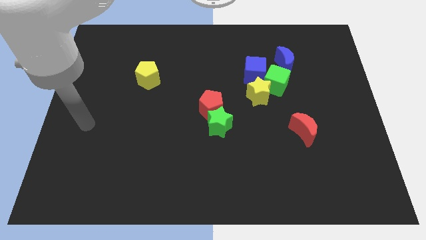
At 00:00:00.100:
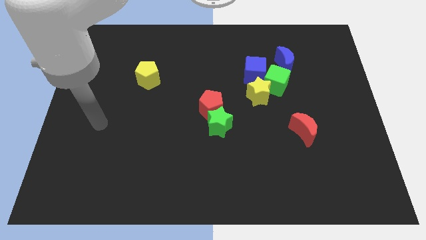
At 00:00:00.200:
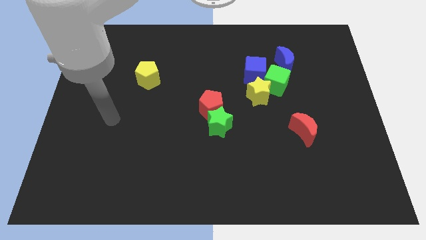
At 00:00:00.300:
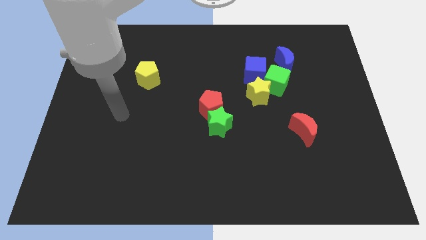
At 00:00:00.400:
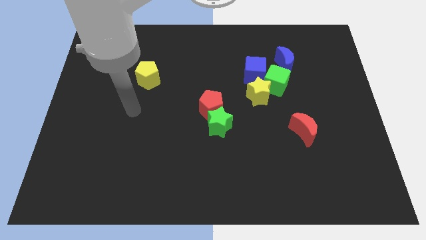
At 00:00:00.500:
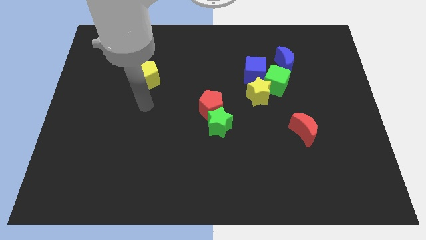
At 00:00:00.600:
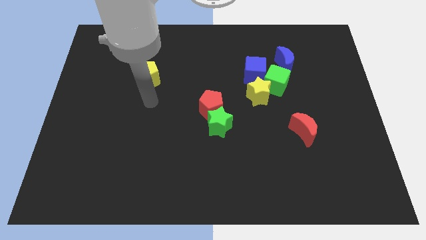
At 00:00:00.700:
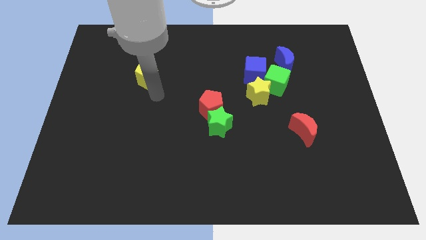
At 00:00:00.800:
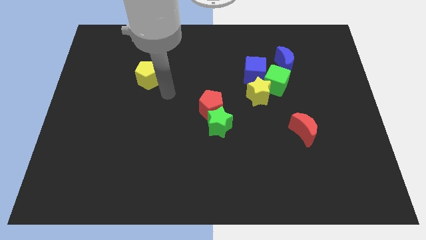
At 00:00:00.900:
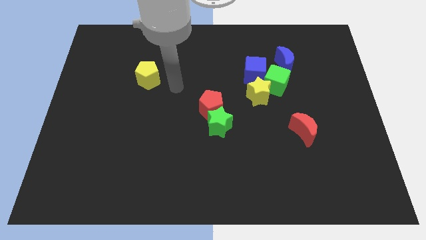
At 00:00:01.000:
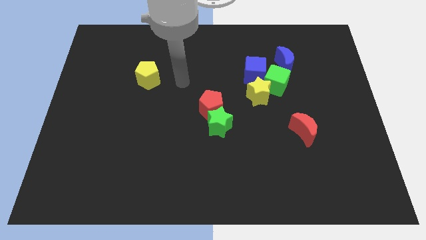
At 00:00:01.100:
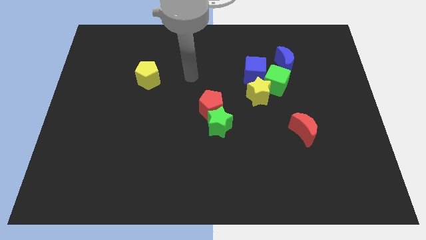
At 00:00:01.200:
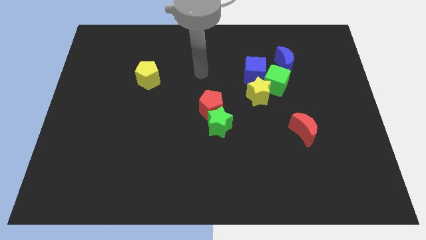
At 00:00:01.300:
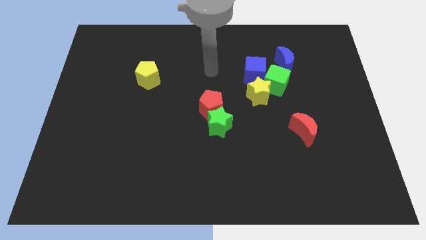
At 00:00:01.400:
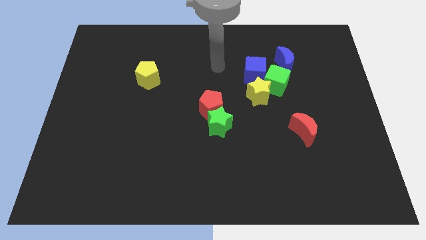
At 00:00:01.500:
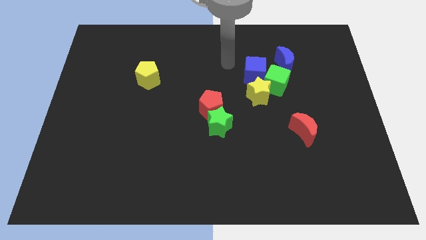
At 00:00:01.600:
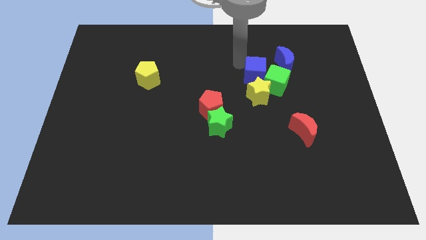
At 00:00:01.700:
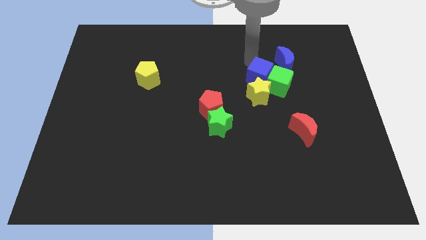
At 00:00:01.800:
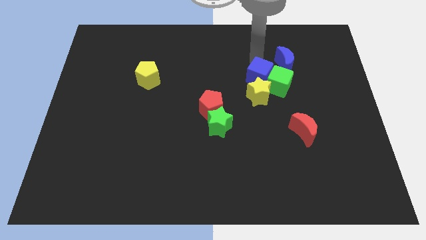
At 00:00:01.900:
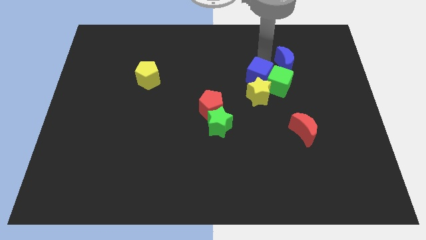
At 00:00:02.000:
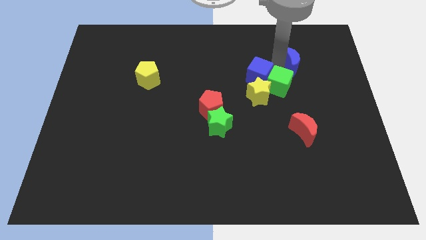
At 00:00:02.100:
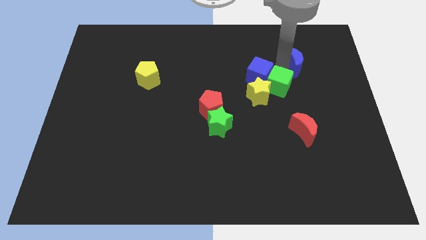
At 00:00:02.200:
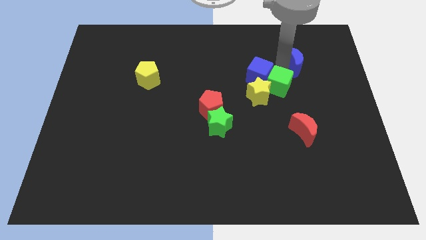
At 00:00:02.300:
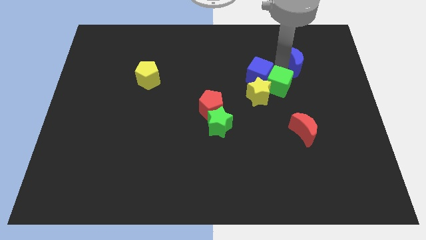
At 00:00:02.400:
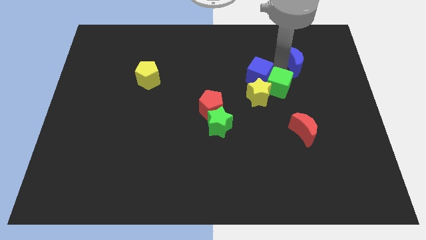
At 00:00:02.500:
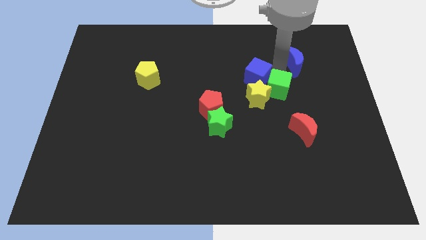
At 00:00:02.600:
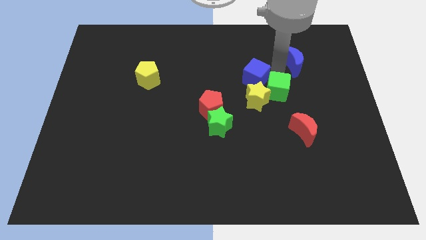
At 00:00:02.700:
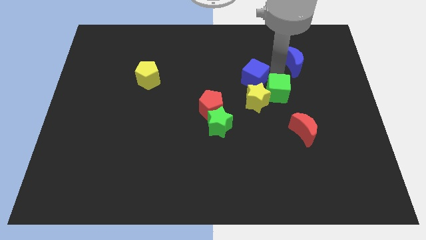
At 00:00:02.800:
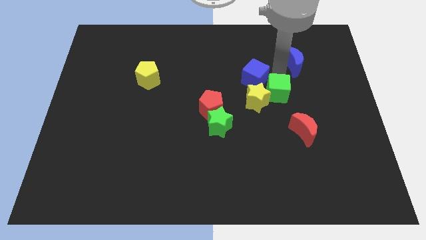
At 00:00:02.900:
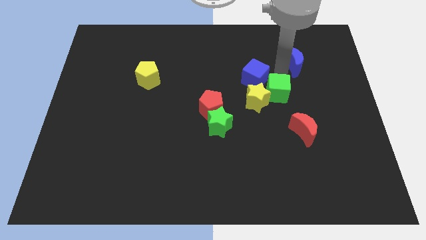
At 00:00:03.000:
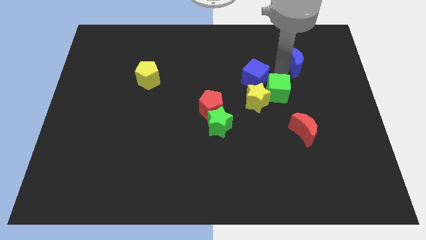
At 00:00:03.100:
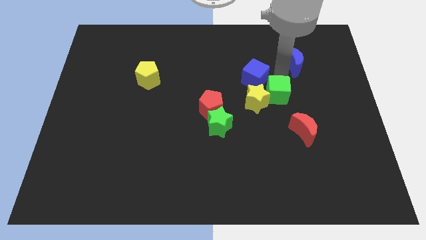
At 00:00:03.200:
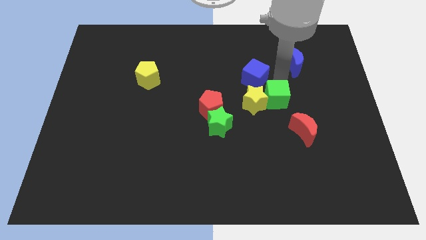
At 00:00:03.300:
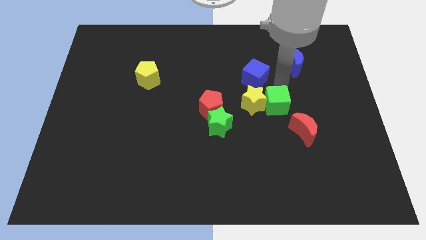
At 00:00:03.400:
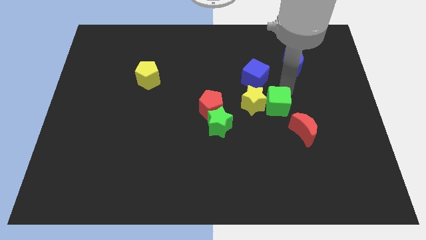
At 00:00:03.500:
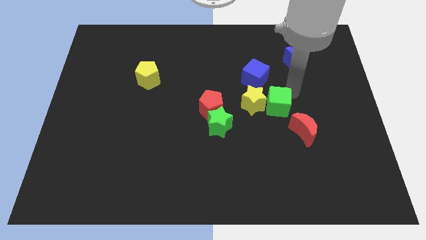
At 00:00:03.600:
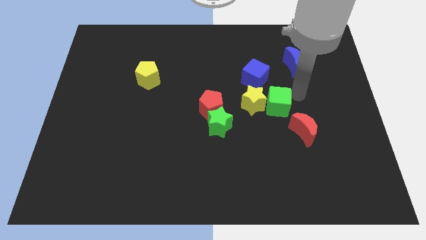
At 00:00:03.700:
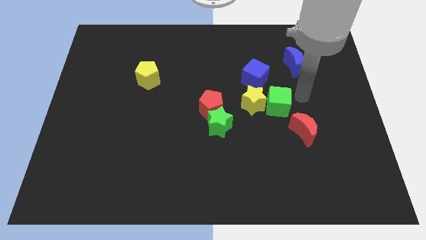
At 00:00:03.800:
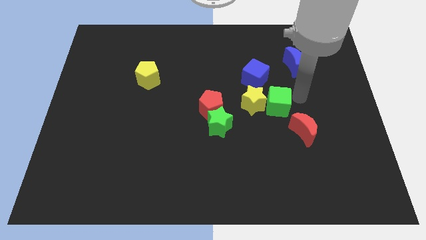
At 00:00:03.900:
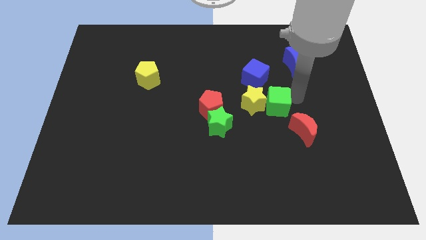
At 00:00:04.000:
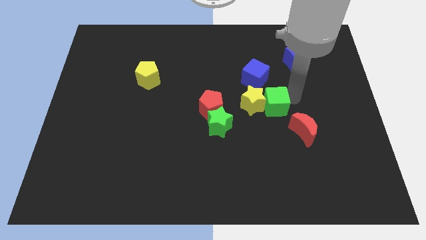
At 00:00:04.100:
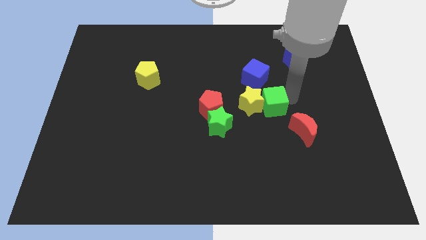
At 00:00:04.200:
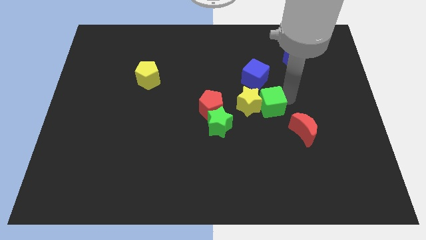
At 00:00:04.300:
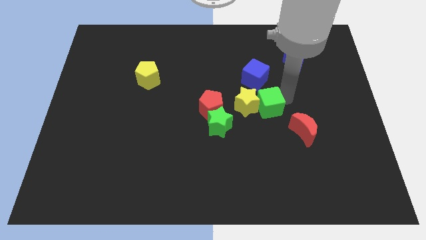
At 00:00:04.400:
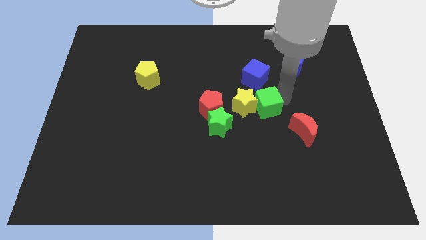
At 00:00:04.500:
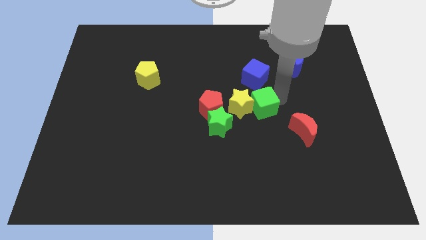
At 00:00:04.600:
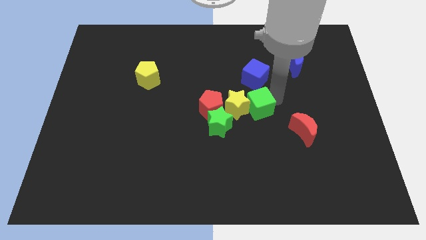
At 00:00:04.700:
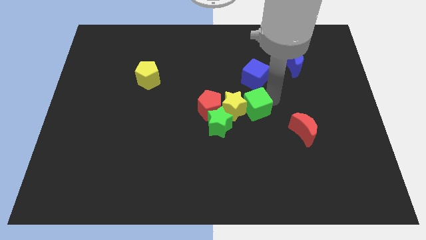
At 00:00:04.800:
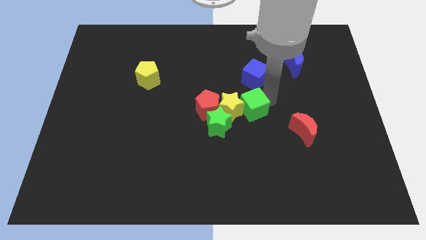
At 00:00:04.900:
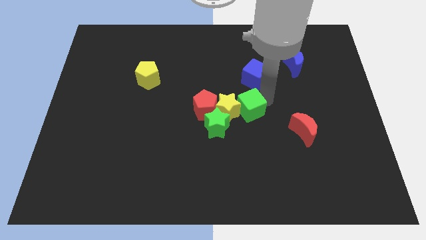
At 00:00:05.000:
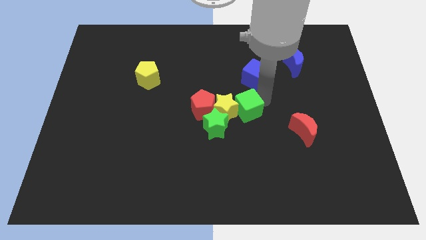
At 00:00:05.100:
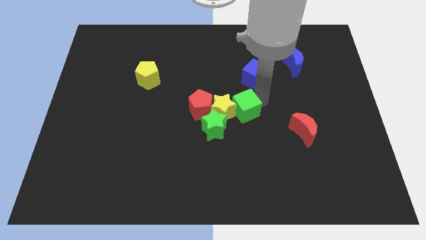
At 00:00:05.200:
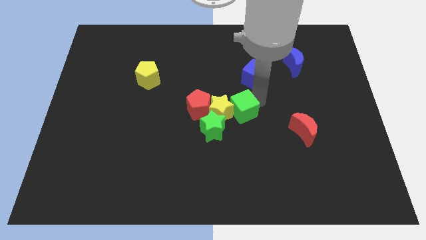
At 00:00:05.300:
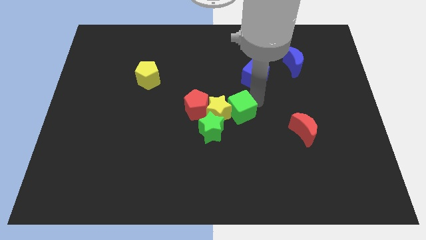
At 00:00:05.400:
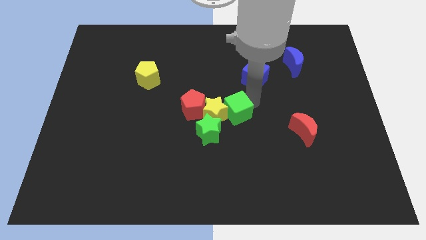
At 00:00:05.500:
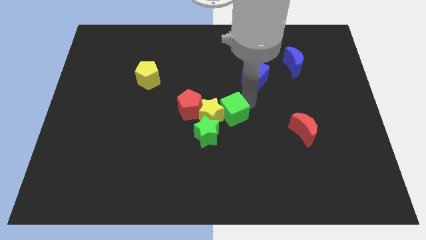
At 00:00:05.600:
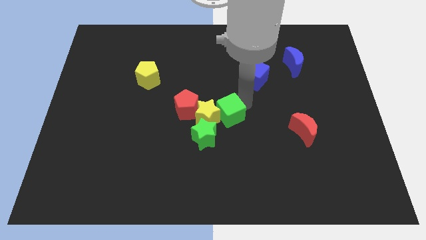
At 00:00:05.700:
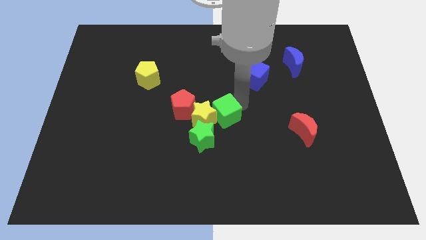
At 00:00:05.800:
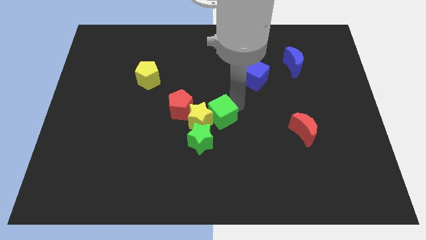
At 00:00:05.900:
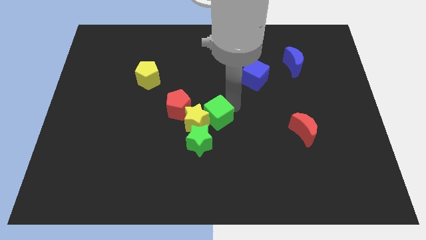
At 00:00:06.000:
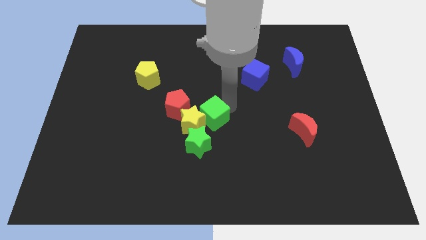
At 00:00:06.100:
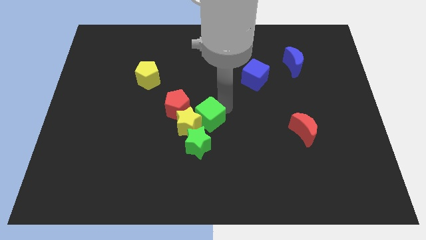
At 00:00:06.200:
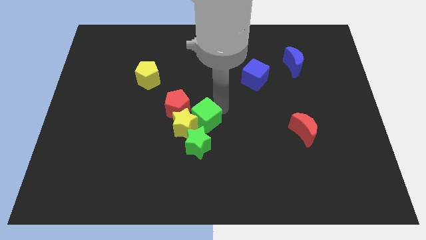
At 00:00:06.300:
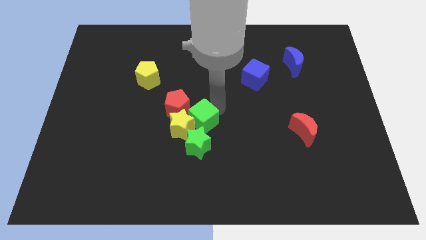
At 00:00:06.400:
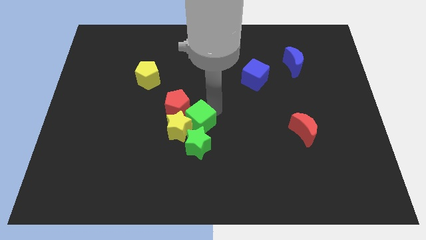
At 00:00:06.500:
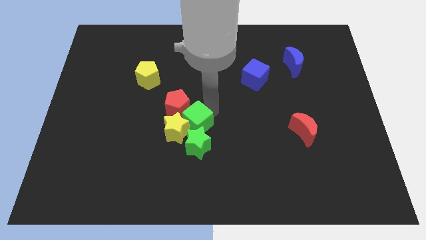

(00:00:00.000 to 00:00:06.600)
push the green cube close to the green star
